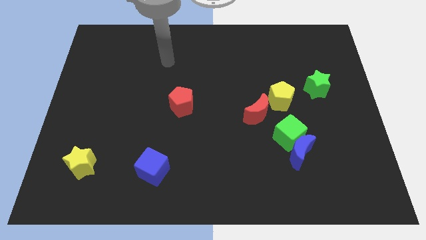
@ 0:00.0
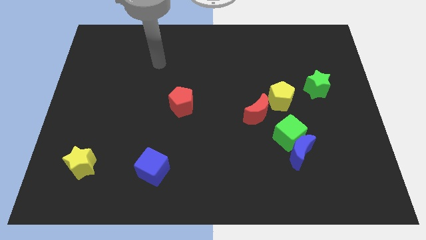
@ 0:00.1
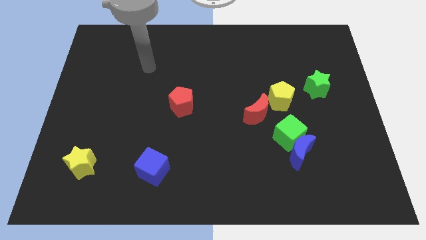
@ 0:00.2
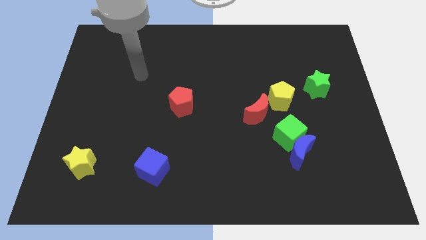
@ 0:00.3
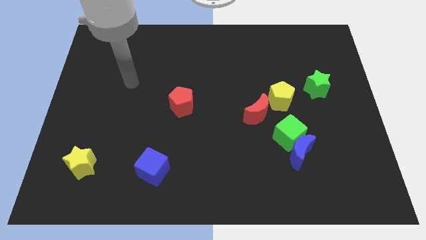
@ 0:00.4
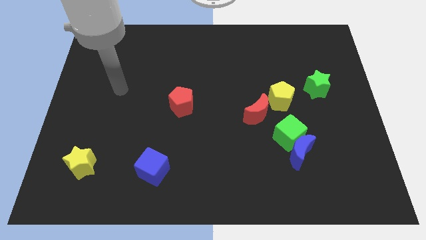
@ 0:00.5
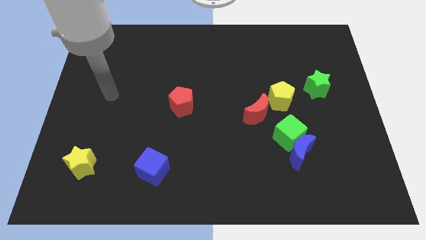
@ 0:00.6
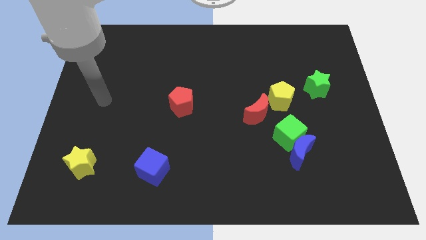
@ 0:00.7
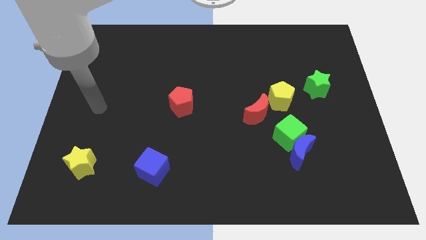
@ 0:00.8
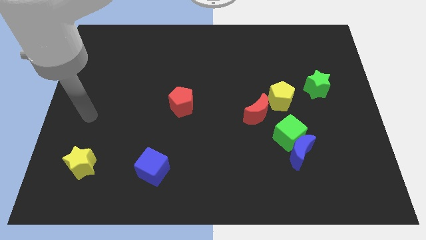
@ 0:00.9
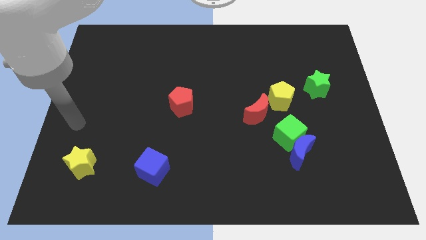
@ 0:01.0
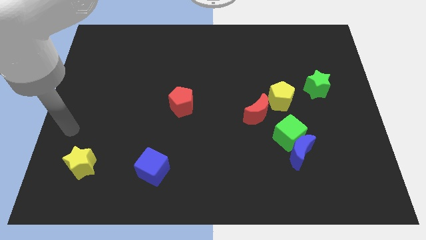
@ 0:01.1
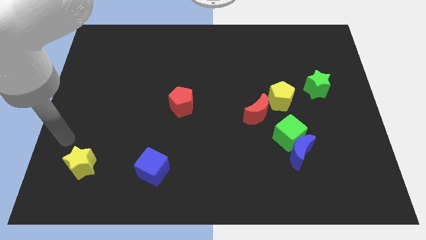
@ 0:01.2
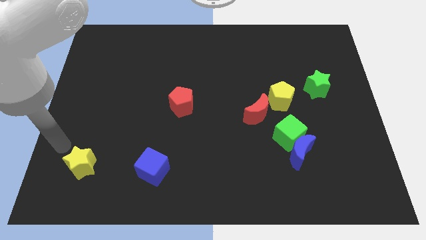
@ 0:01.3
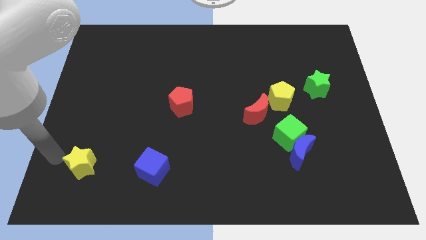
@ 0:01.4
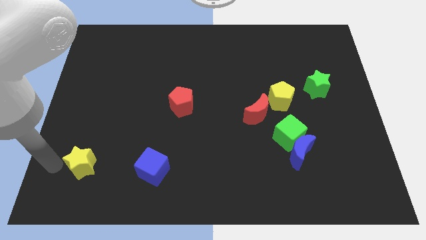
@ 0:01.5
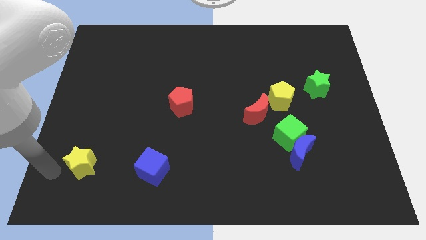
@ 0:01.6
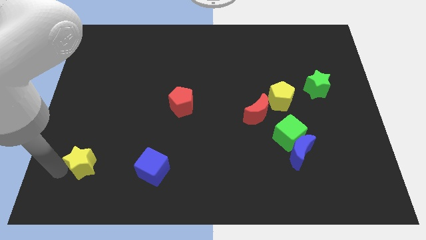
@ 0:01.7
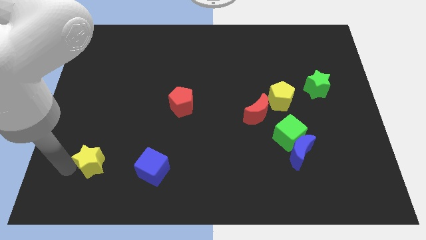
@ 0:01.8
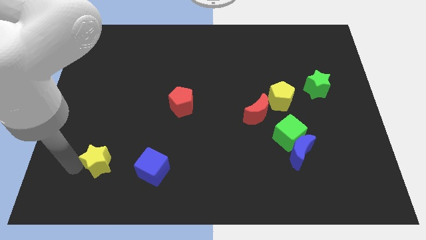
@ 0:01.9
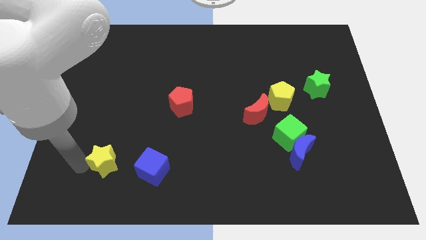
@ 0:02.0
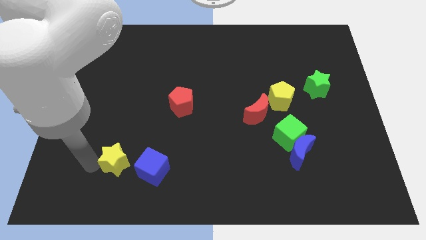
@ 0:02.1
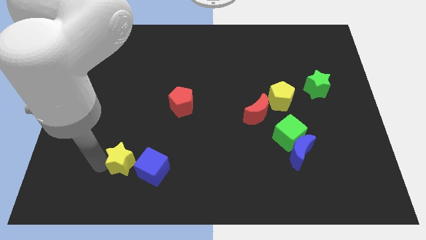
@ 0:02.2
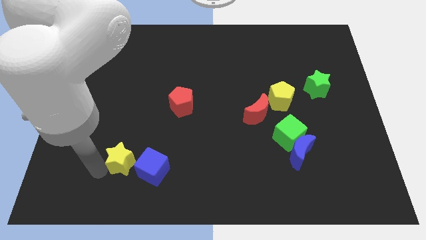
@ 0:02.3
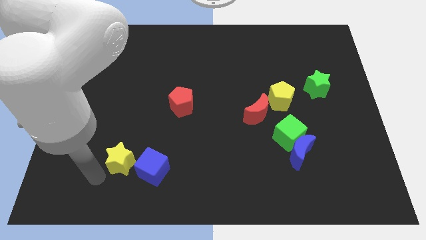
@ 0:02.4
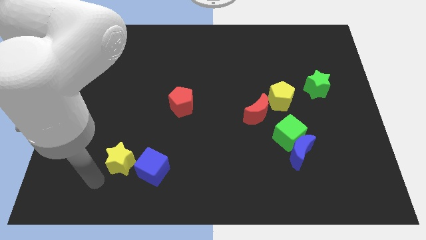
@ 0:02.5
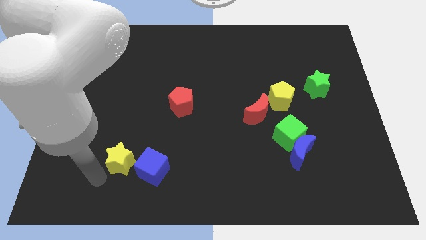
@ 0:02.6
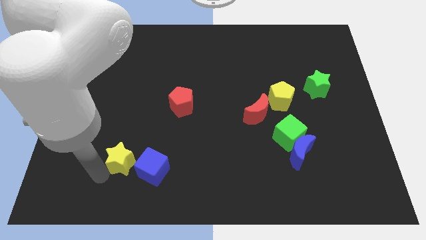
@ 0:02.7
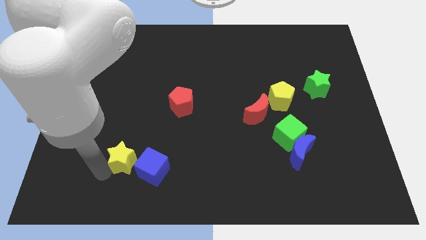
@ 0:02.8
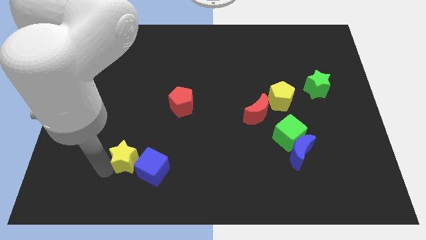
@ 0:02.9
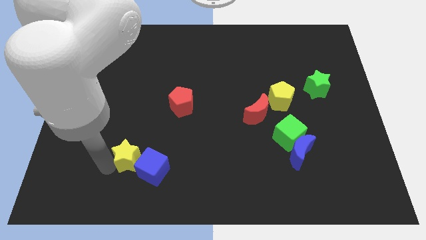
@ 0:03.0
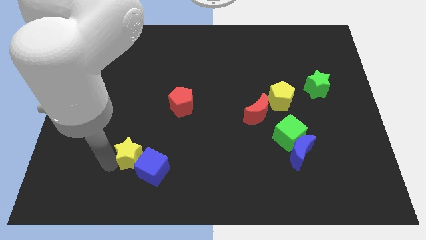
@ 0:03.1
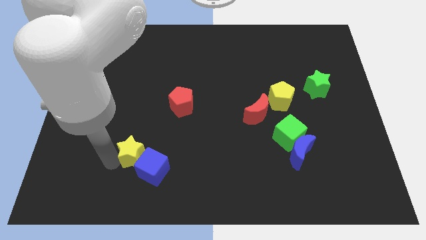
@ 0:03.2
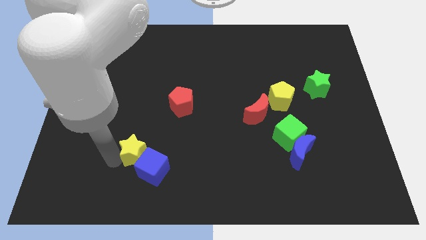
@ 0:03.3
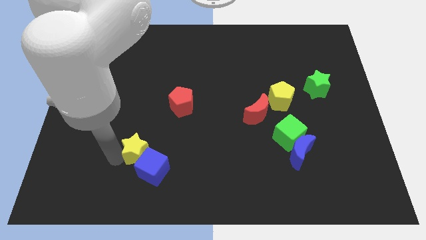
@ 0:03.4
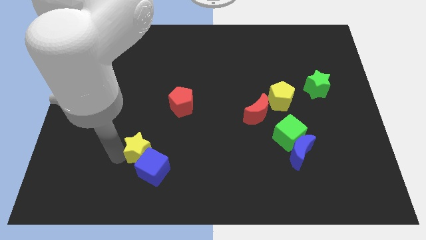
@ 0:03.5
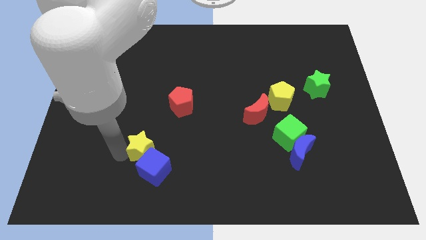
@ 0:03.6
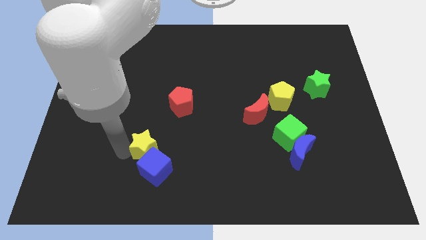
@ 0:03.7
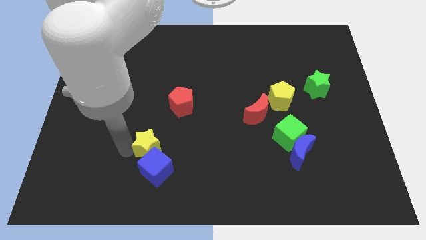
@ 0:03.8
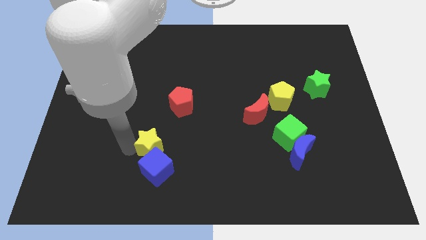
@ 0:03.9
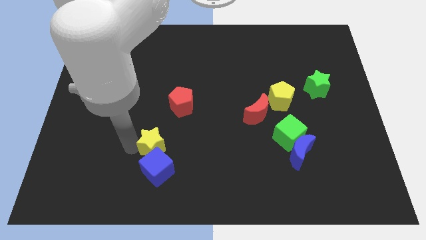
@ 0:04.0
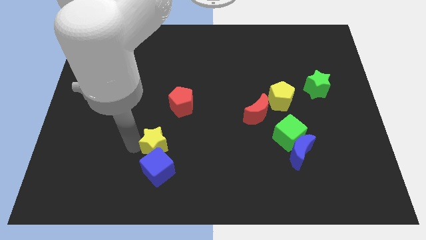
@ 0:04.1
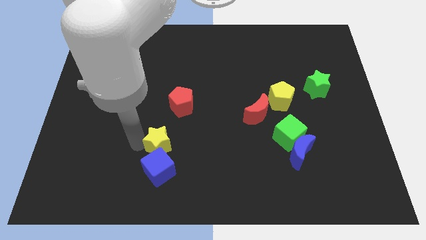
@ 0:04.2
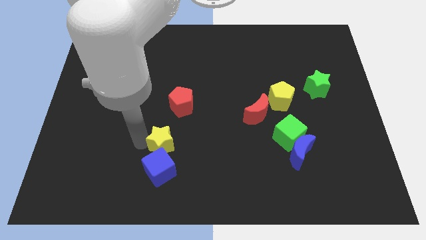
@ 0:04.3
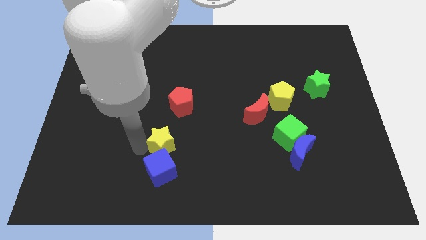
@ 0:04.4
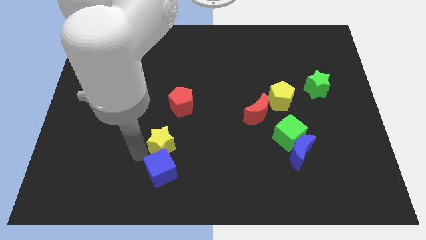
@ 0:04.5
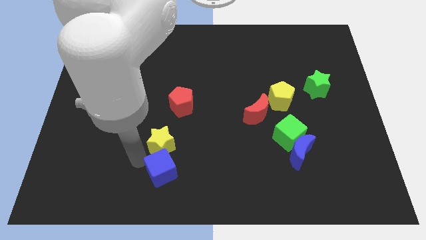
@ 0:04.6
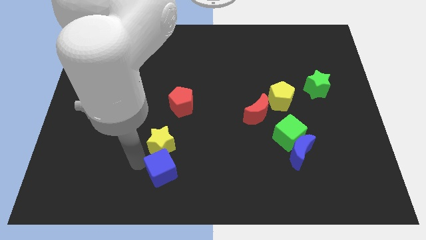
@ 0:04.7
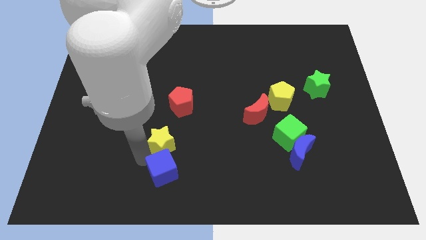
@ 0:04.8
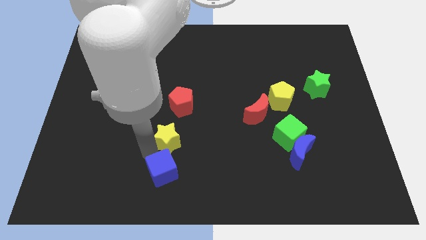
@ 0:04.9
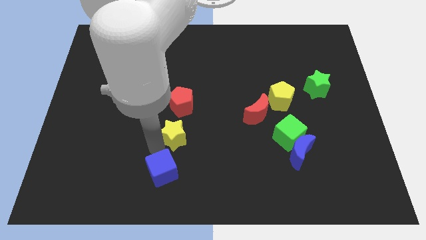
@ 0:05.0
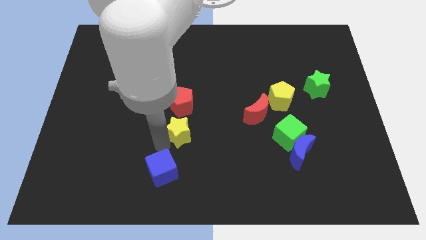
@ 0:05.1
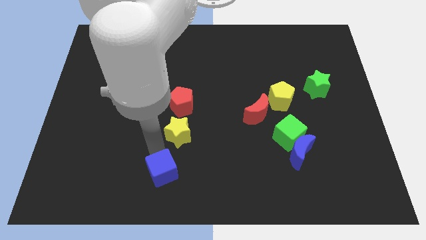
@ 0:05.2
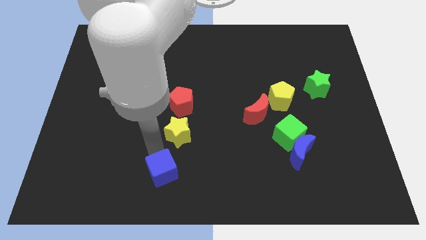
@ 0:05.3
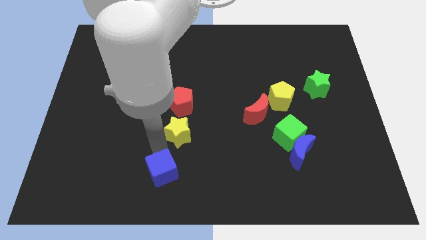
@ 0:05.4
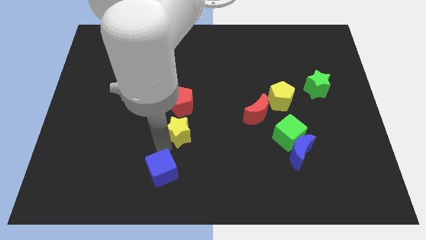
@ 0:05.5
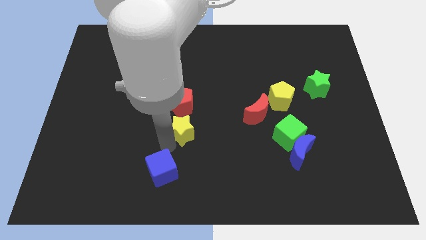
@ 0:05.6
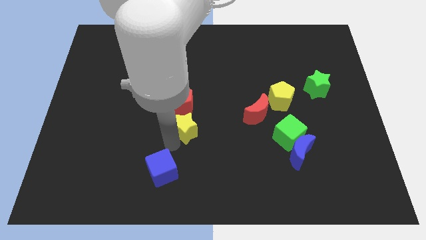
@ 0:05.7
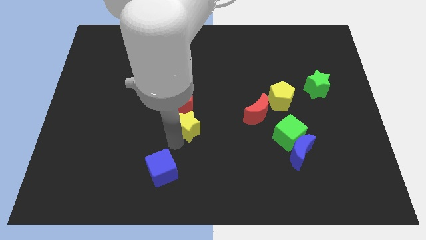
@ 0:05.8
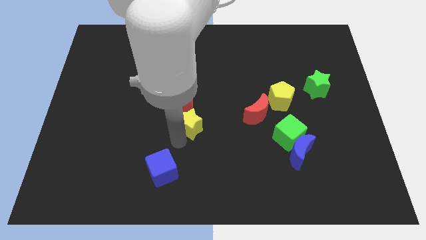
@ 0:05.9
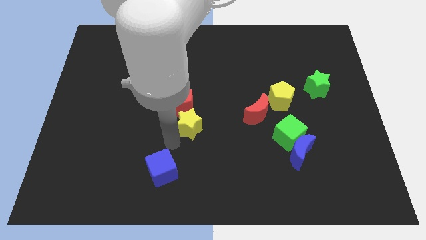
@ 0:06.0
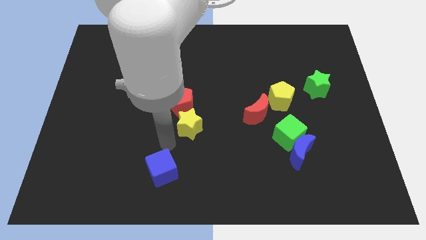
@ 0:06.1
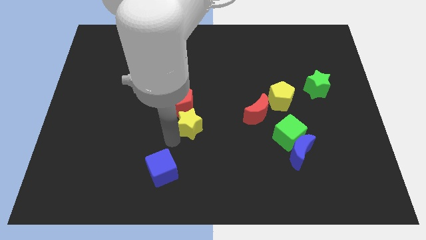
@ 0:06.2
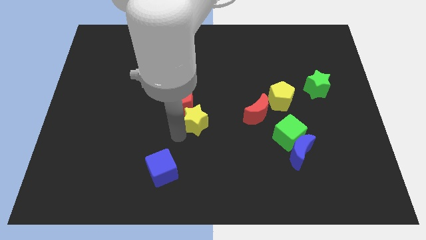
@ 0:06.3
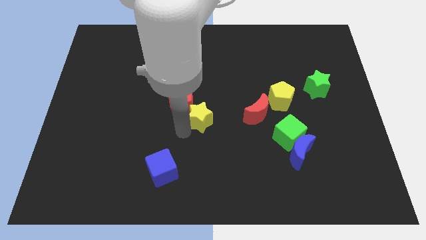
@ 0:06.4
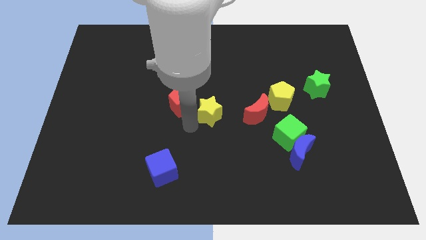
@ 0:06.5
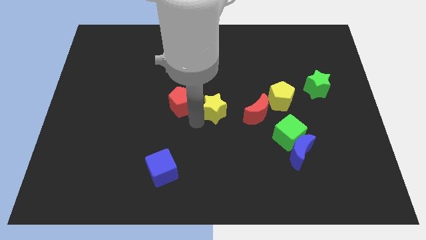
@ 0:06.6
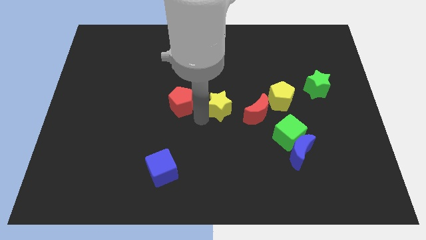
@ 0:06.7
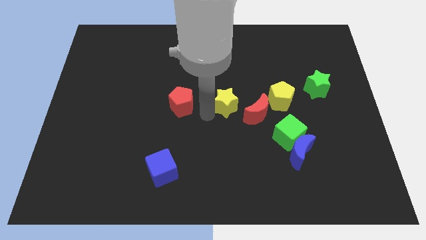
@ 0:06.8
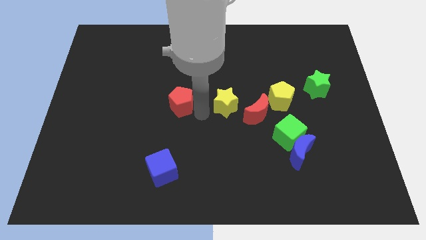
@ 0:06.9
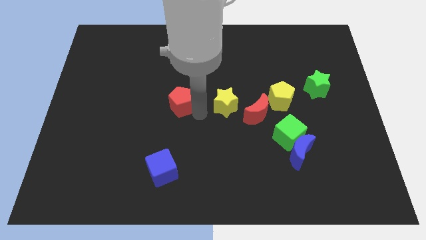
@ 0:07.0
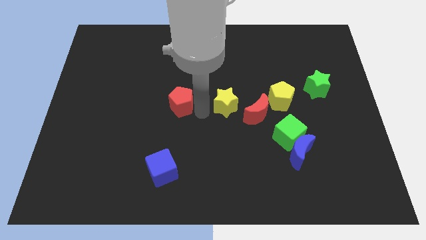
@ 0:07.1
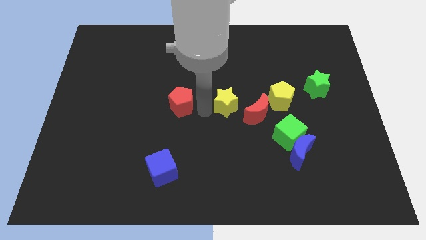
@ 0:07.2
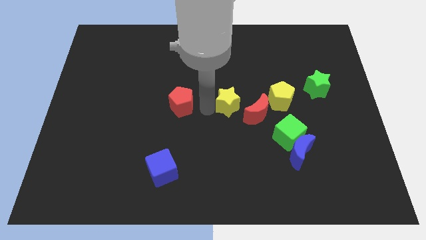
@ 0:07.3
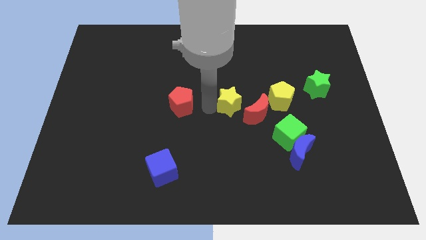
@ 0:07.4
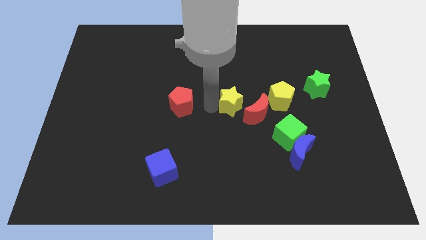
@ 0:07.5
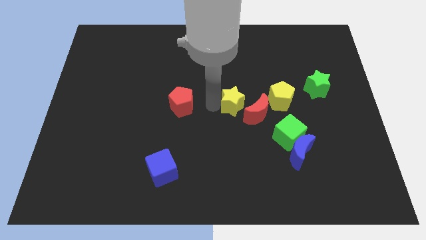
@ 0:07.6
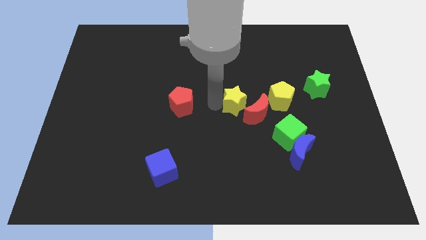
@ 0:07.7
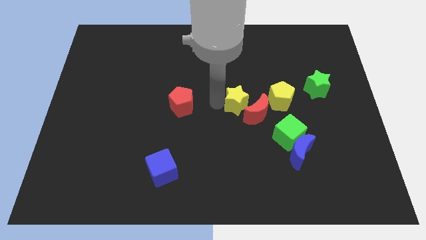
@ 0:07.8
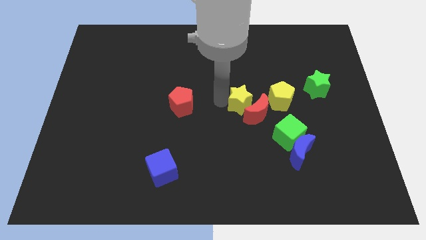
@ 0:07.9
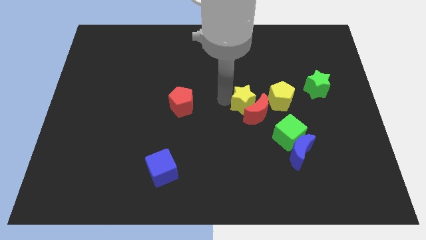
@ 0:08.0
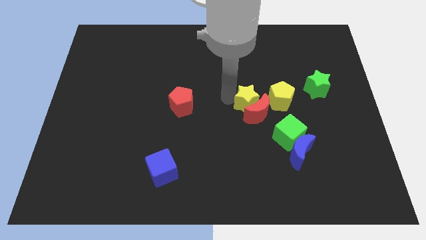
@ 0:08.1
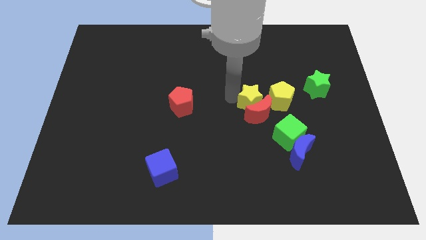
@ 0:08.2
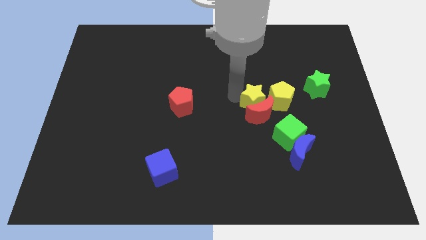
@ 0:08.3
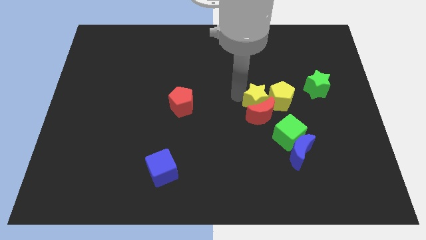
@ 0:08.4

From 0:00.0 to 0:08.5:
push the yellow star to the yellow pentagon
